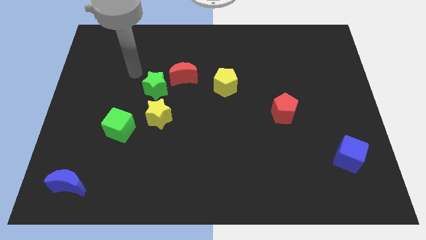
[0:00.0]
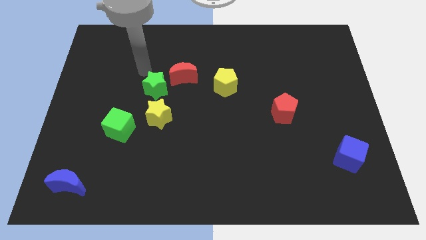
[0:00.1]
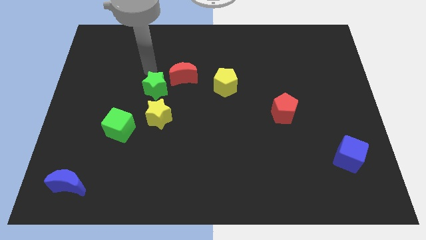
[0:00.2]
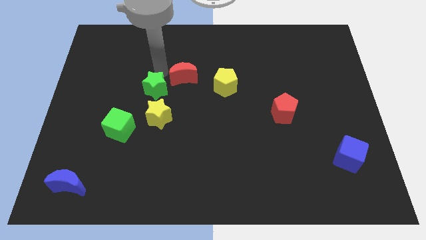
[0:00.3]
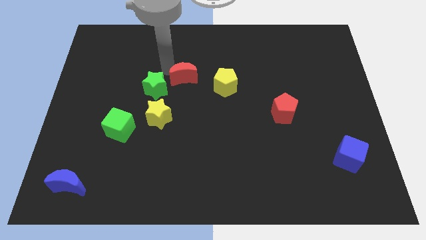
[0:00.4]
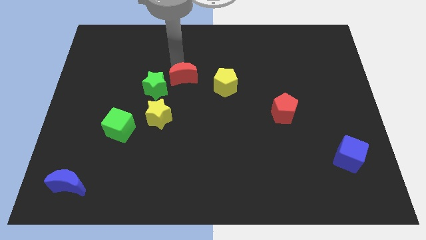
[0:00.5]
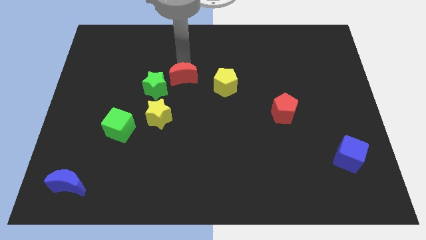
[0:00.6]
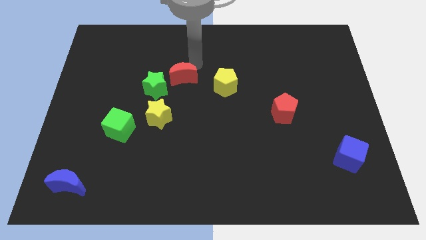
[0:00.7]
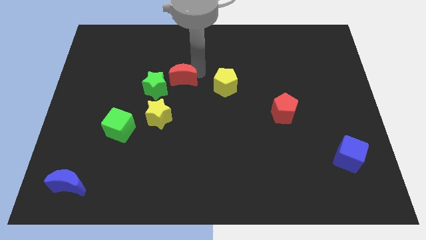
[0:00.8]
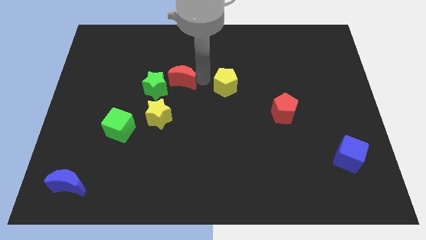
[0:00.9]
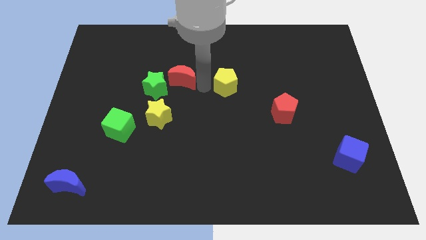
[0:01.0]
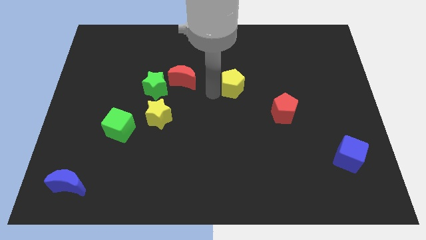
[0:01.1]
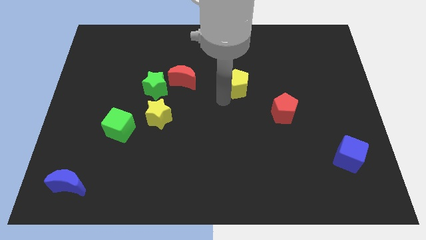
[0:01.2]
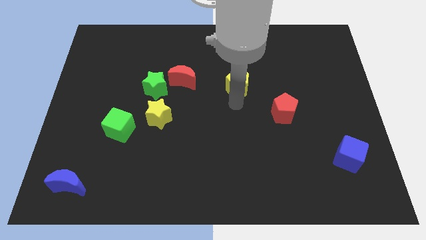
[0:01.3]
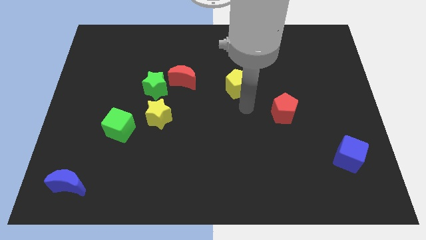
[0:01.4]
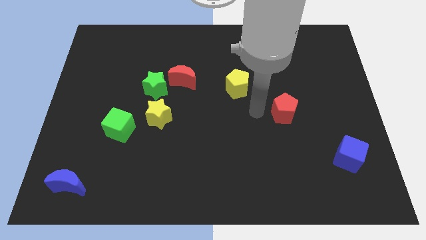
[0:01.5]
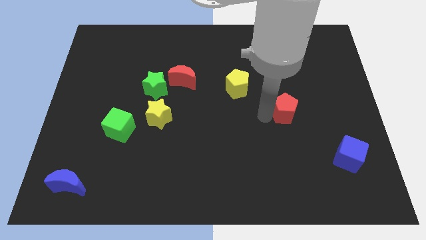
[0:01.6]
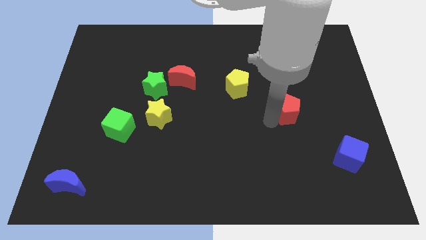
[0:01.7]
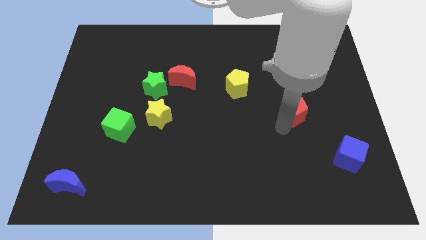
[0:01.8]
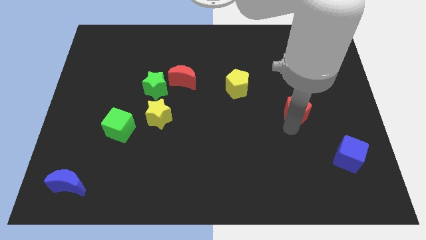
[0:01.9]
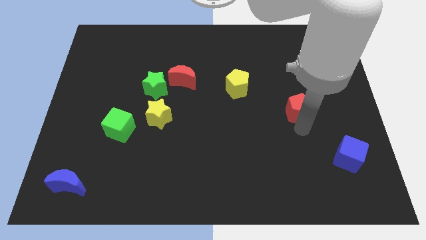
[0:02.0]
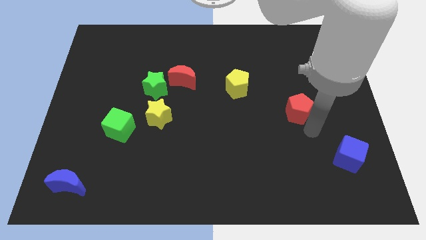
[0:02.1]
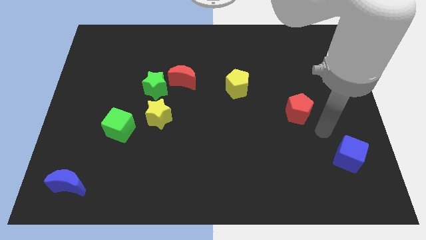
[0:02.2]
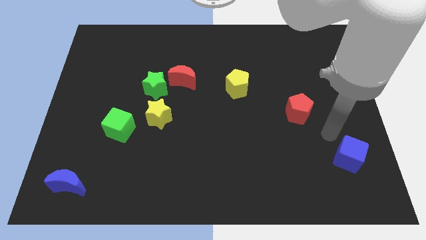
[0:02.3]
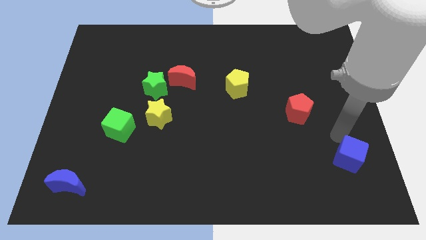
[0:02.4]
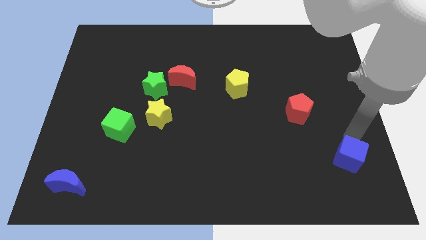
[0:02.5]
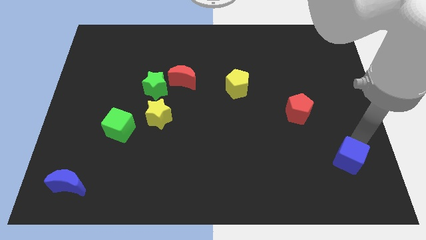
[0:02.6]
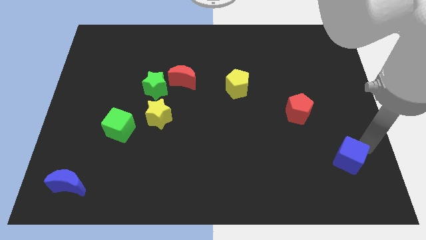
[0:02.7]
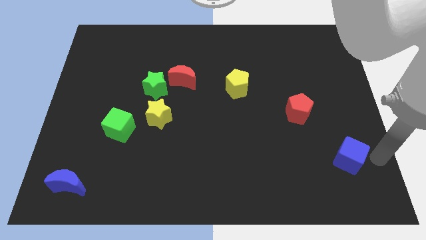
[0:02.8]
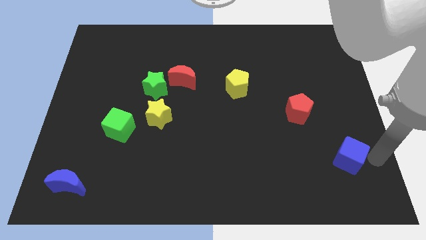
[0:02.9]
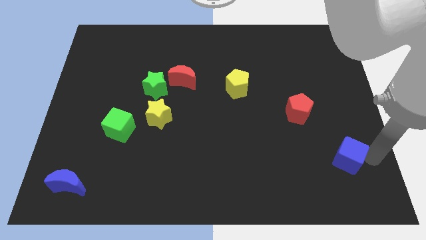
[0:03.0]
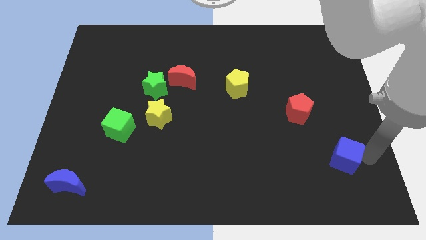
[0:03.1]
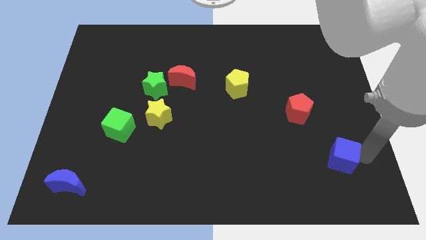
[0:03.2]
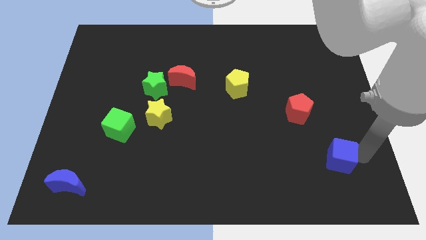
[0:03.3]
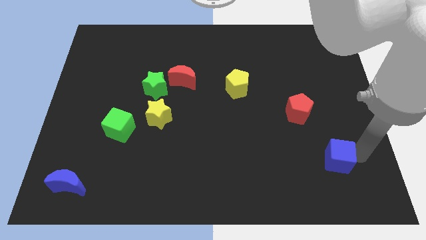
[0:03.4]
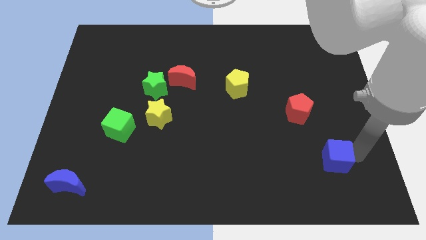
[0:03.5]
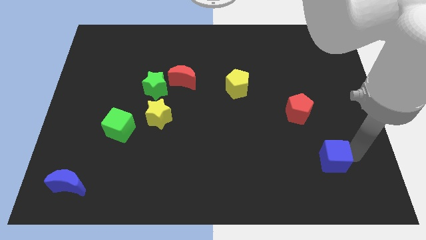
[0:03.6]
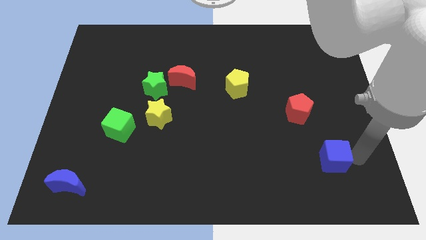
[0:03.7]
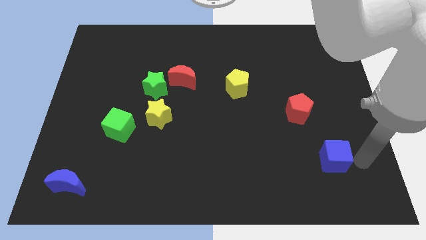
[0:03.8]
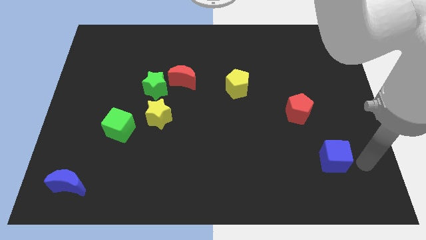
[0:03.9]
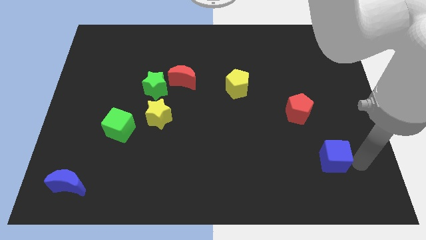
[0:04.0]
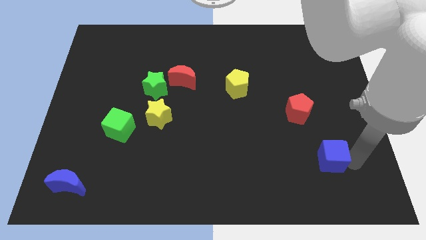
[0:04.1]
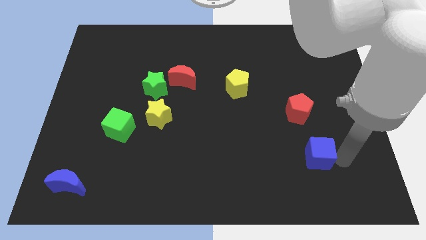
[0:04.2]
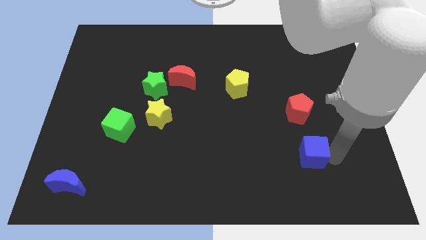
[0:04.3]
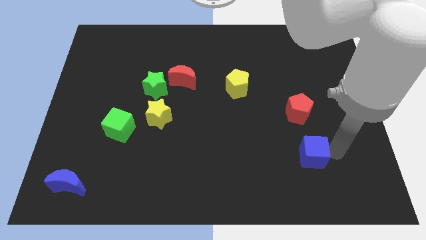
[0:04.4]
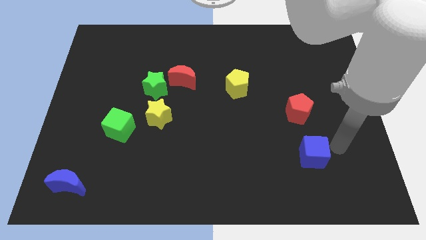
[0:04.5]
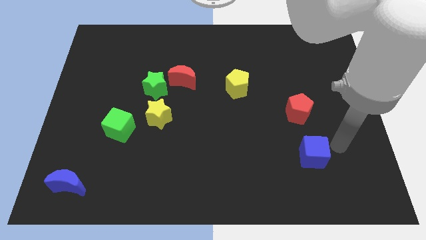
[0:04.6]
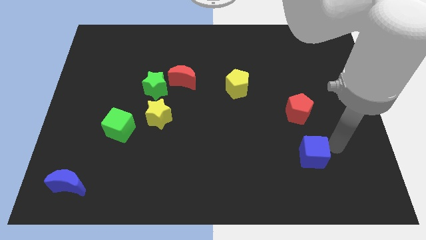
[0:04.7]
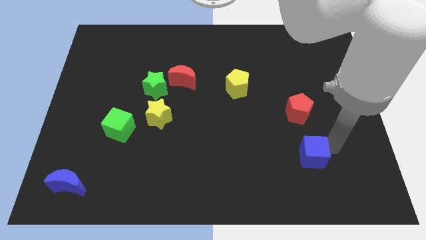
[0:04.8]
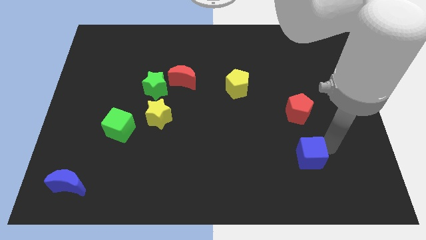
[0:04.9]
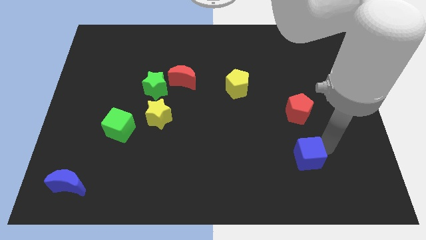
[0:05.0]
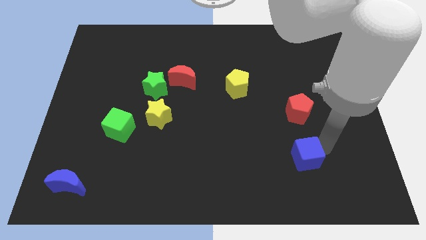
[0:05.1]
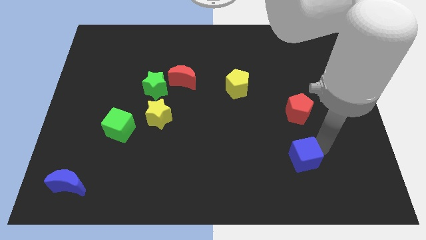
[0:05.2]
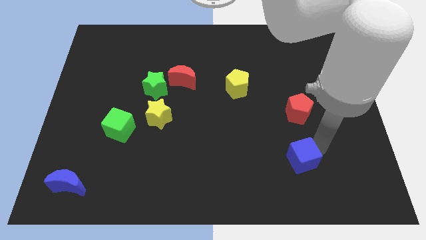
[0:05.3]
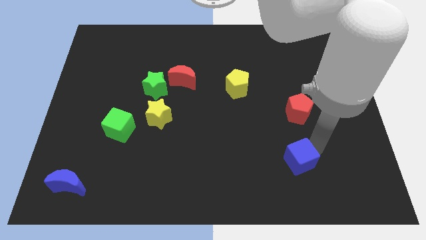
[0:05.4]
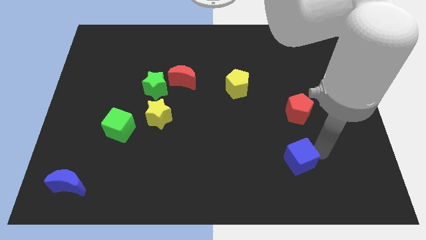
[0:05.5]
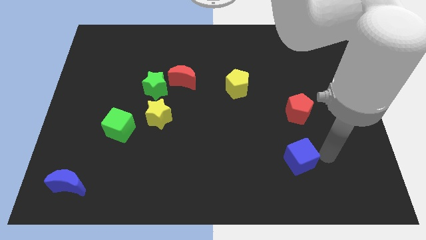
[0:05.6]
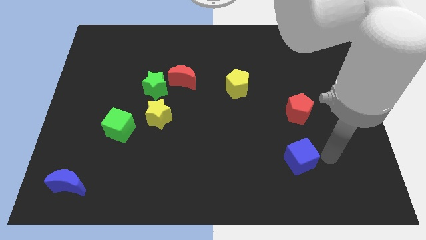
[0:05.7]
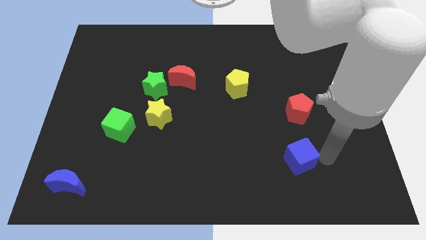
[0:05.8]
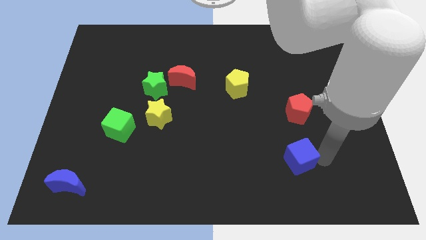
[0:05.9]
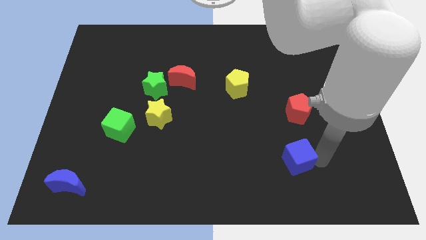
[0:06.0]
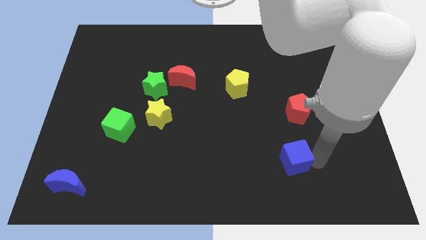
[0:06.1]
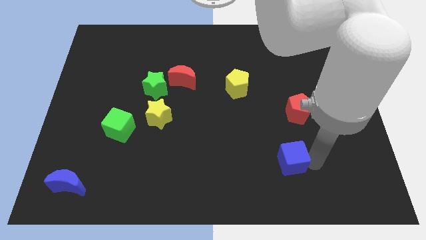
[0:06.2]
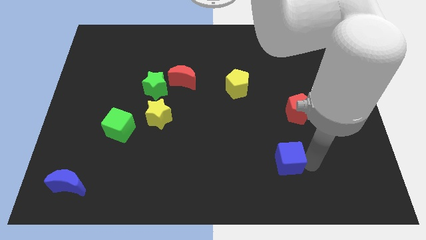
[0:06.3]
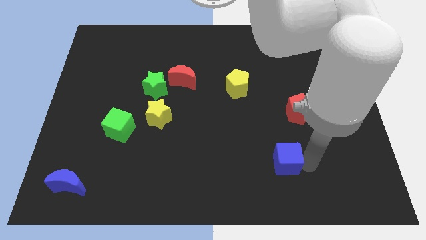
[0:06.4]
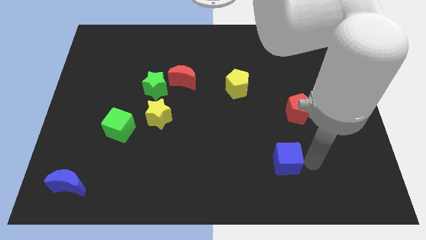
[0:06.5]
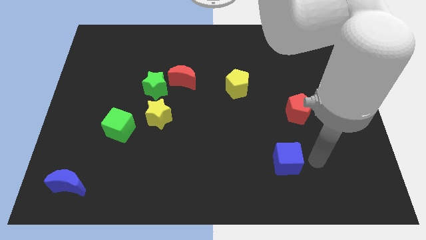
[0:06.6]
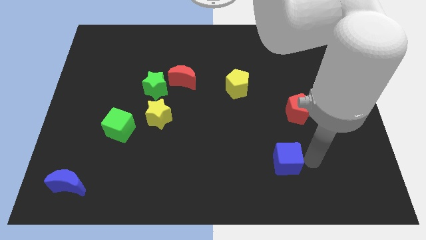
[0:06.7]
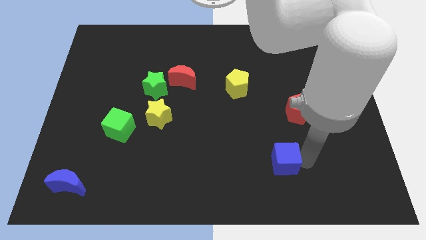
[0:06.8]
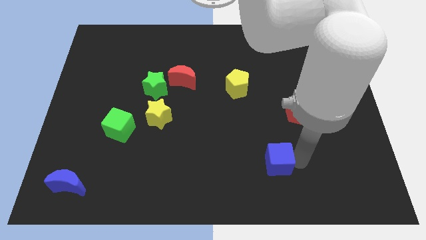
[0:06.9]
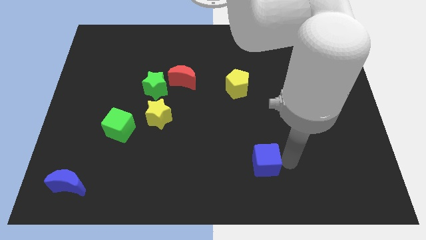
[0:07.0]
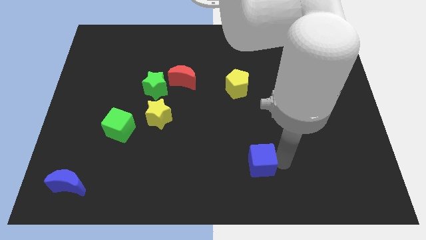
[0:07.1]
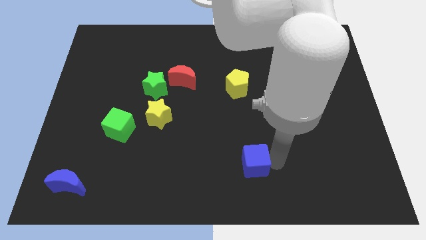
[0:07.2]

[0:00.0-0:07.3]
slide the blue cube left

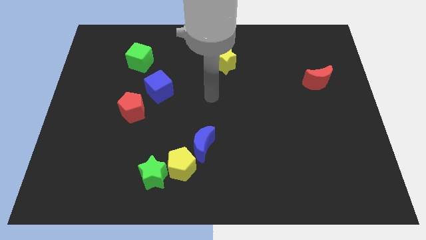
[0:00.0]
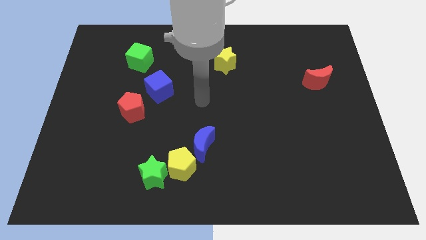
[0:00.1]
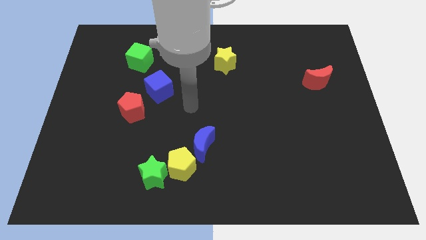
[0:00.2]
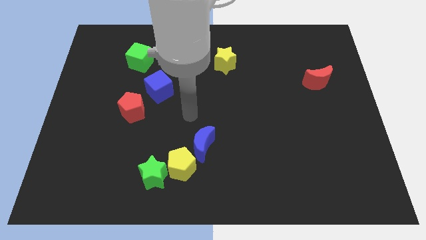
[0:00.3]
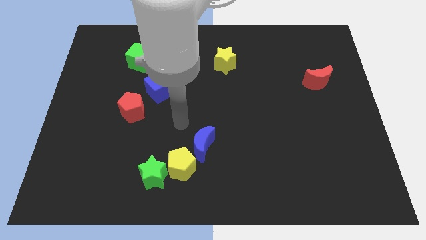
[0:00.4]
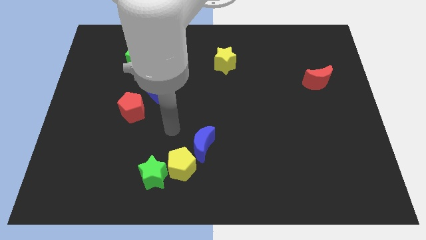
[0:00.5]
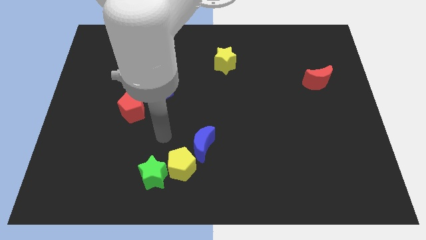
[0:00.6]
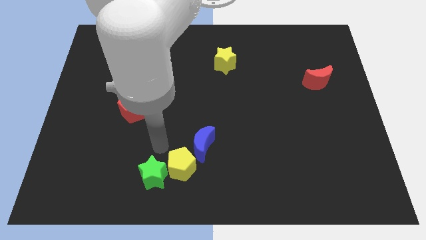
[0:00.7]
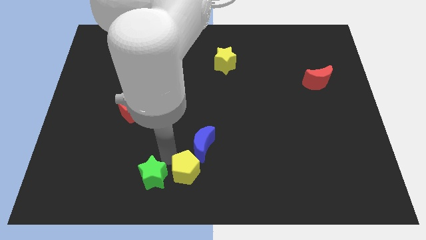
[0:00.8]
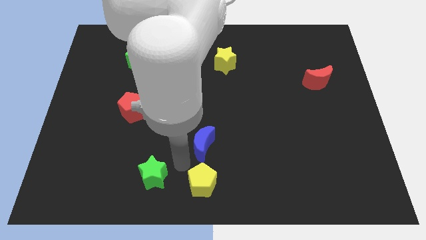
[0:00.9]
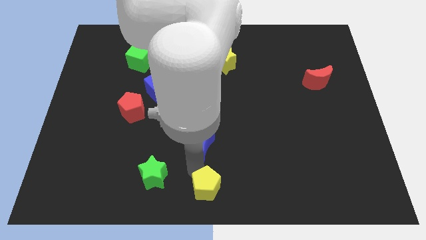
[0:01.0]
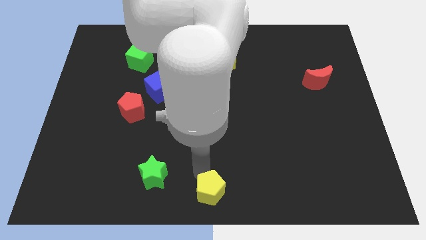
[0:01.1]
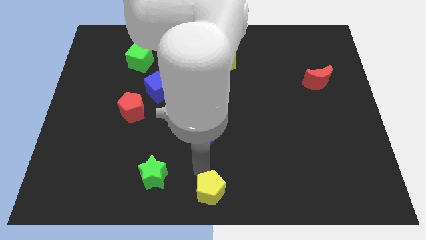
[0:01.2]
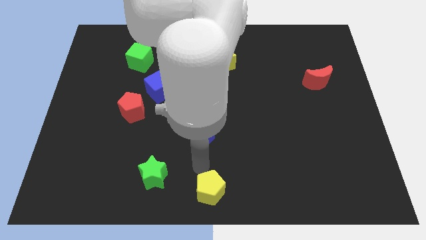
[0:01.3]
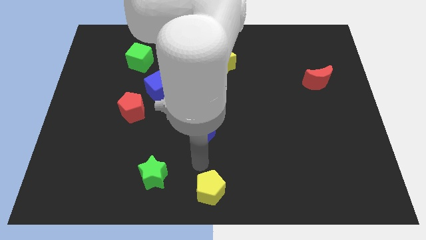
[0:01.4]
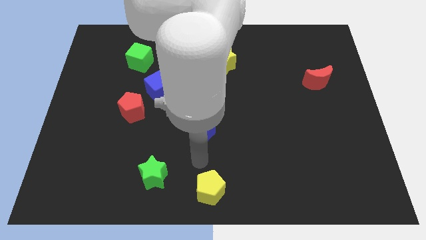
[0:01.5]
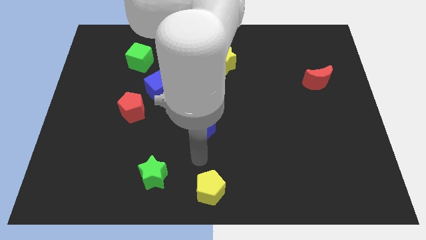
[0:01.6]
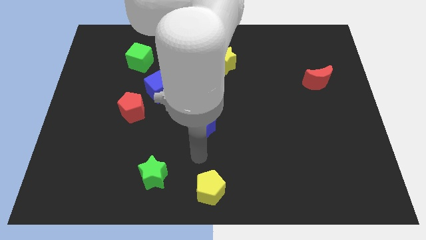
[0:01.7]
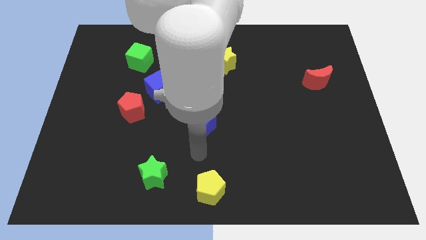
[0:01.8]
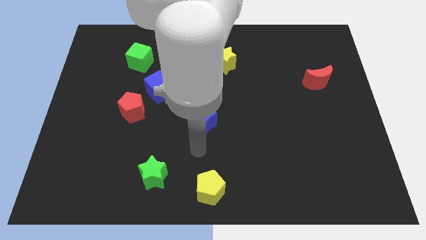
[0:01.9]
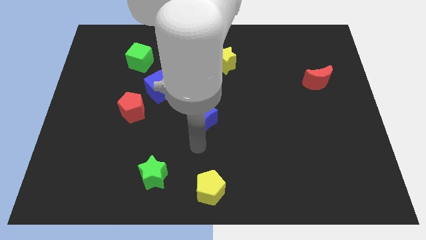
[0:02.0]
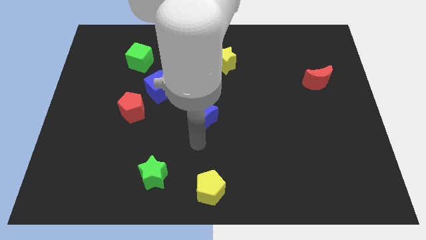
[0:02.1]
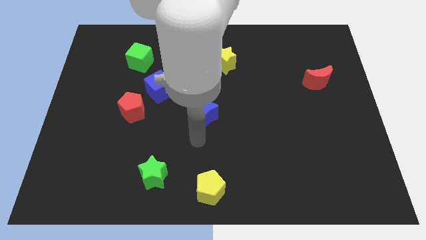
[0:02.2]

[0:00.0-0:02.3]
move the blue moon somewhat upwards
